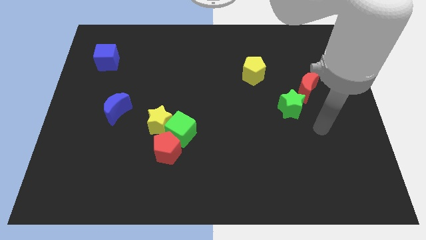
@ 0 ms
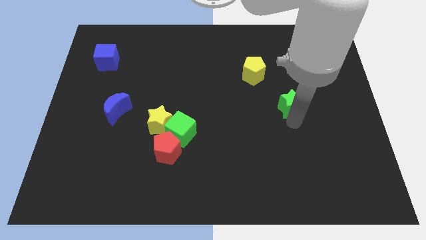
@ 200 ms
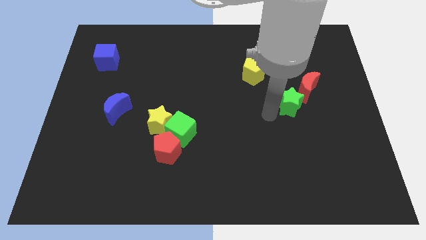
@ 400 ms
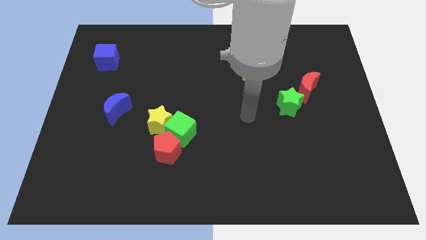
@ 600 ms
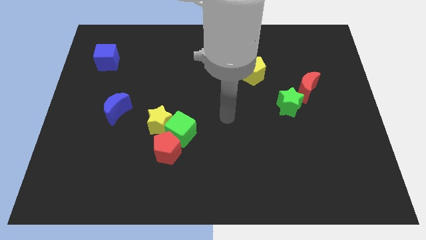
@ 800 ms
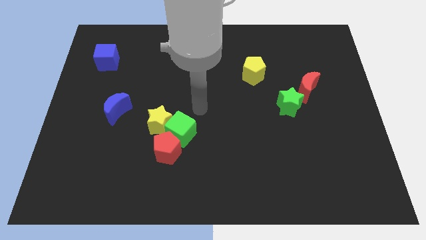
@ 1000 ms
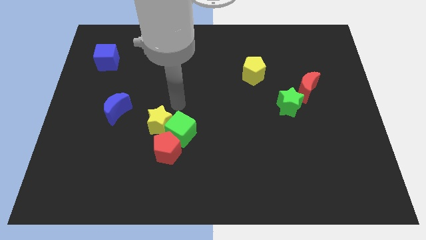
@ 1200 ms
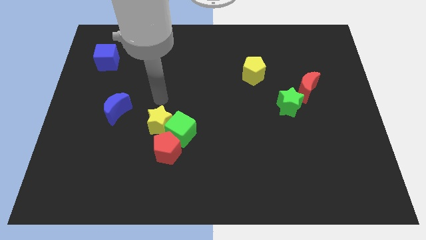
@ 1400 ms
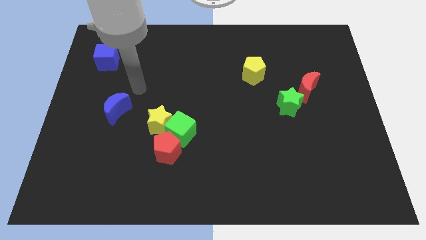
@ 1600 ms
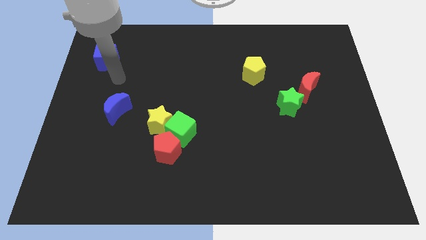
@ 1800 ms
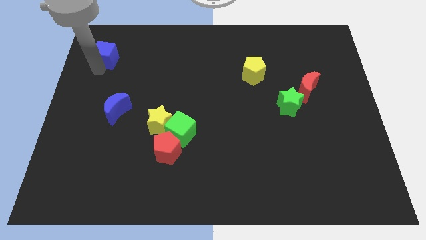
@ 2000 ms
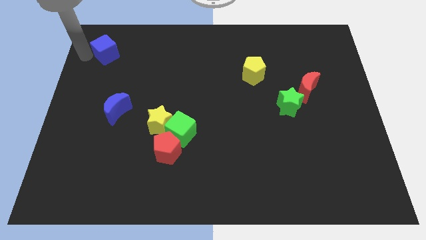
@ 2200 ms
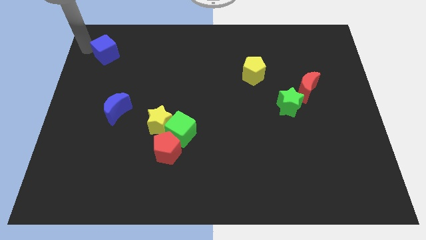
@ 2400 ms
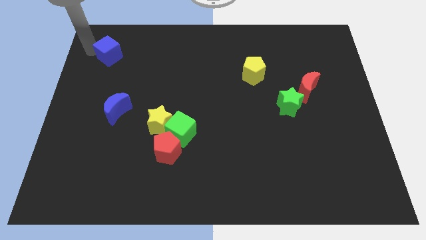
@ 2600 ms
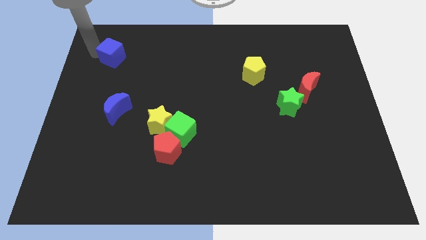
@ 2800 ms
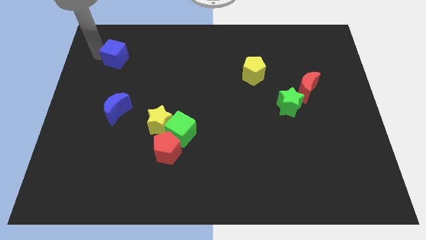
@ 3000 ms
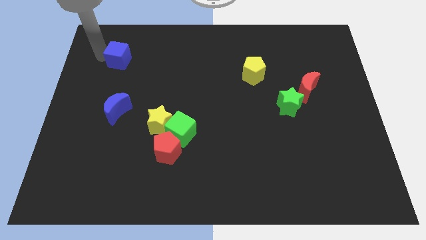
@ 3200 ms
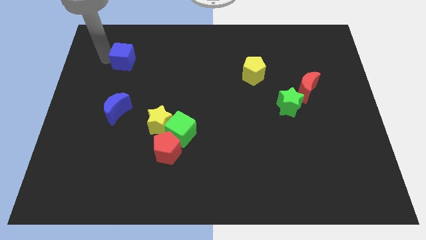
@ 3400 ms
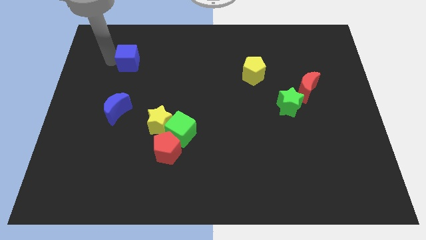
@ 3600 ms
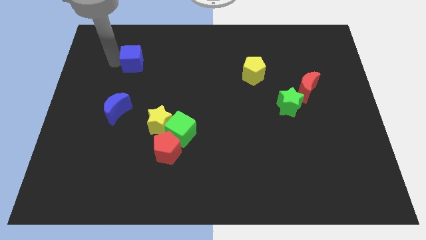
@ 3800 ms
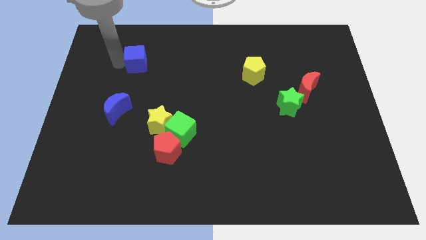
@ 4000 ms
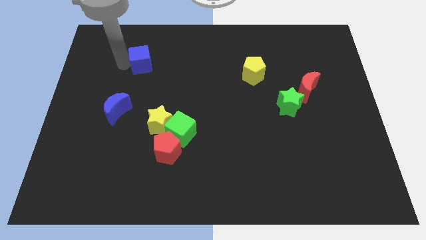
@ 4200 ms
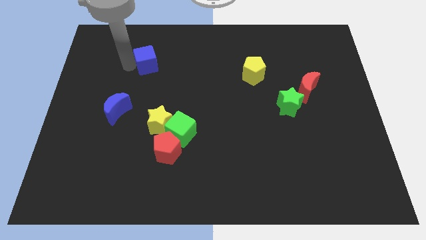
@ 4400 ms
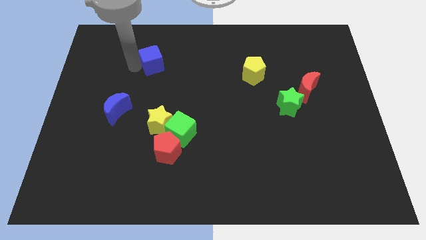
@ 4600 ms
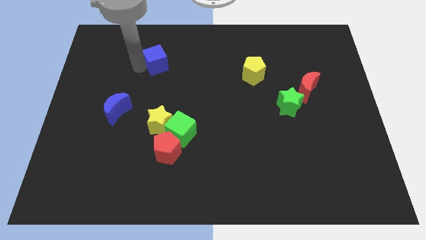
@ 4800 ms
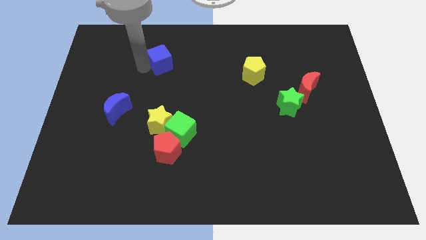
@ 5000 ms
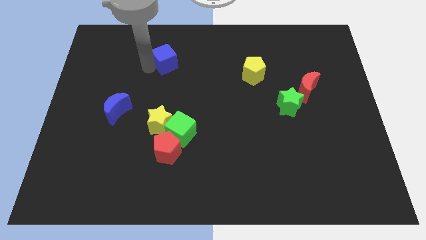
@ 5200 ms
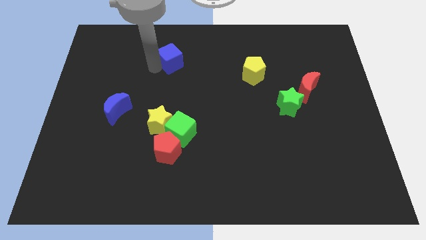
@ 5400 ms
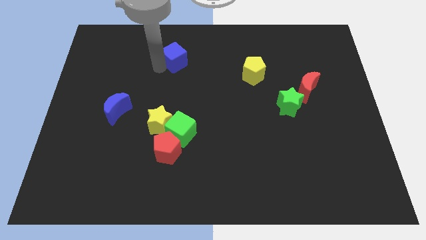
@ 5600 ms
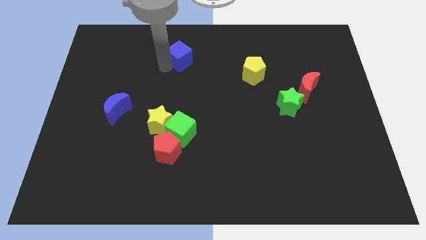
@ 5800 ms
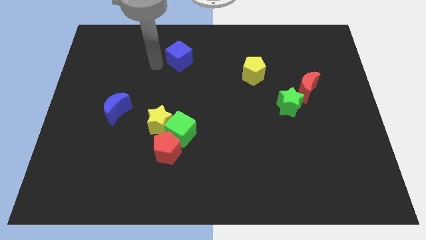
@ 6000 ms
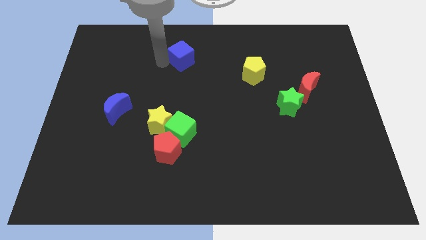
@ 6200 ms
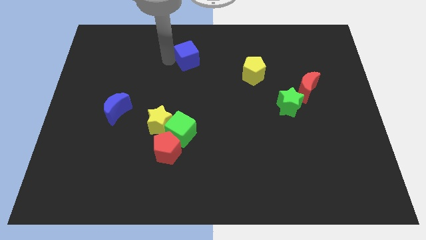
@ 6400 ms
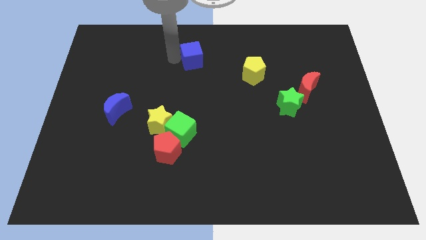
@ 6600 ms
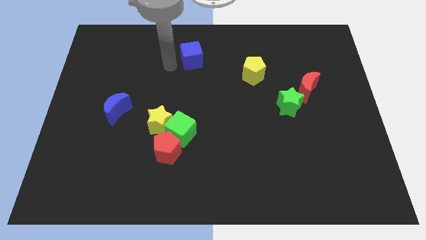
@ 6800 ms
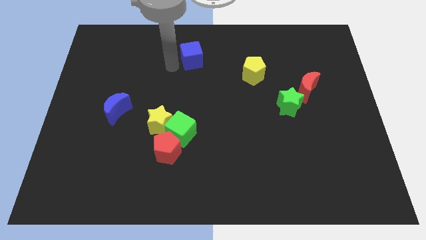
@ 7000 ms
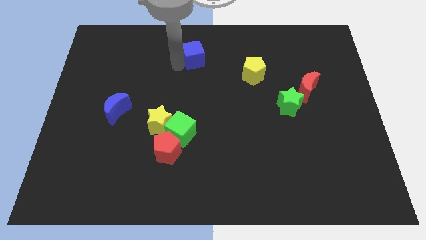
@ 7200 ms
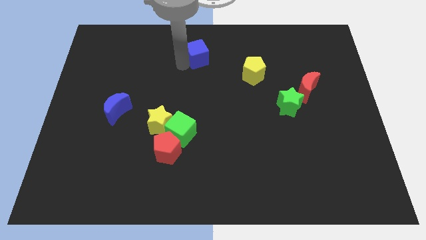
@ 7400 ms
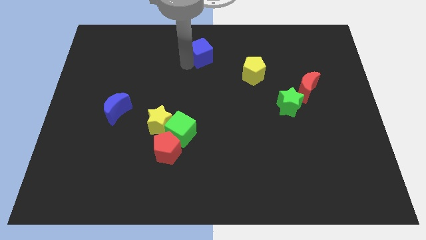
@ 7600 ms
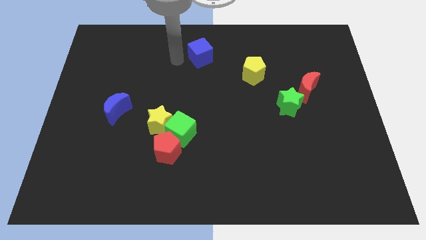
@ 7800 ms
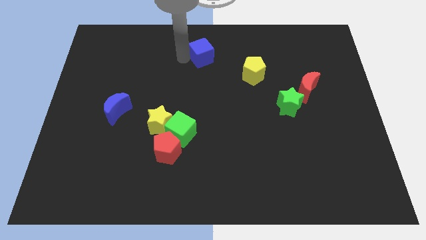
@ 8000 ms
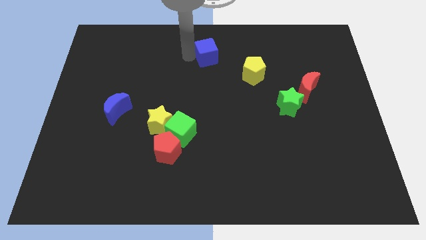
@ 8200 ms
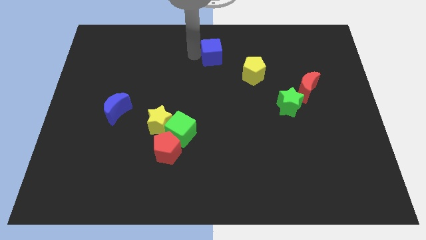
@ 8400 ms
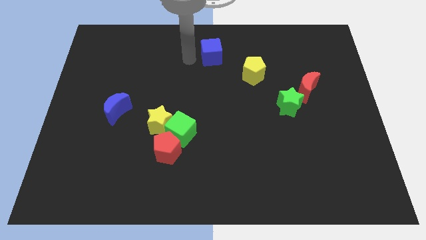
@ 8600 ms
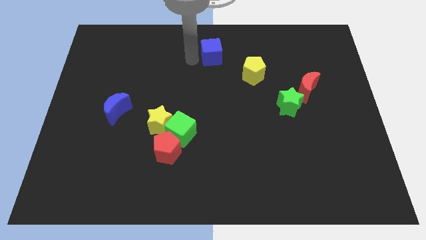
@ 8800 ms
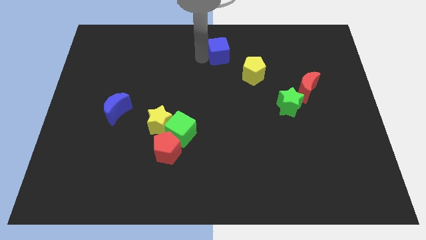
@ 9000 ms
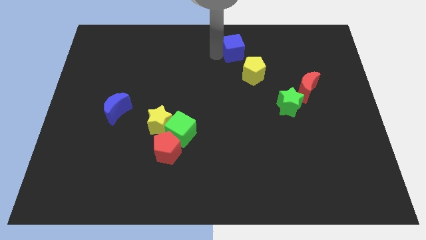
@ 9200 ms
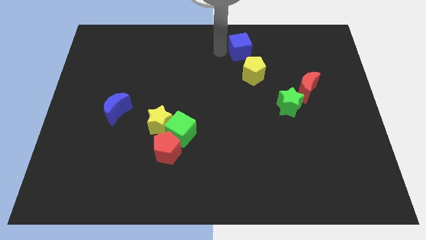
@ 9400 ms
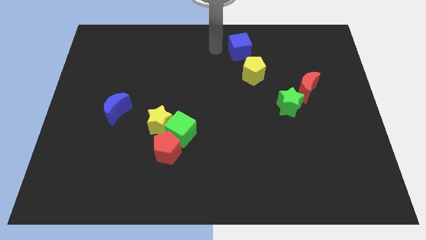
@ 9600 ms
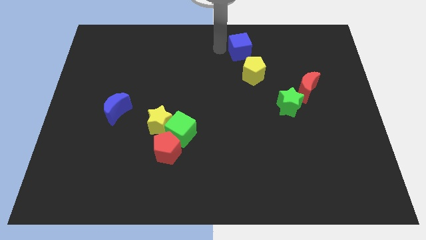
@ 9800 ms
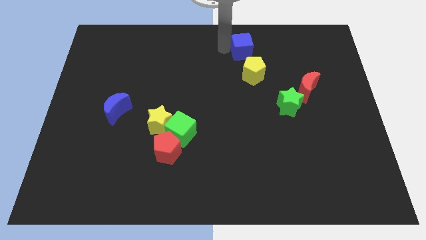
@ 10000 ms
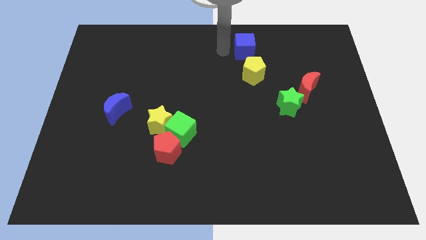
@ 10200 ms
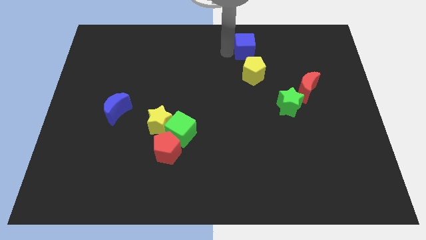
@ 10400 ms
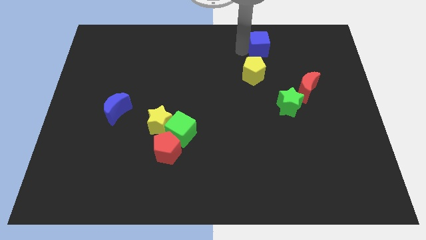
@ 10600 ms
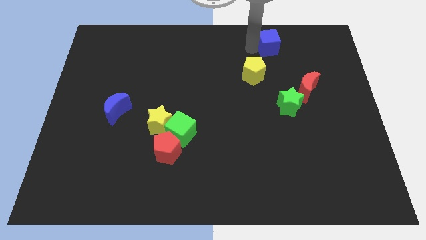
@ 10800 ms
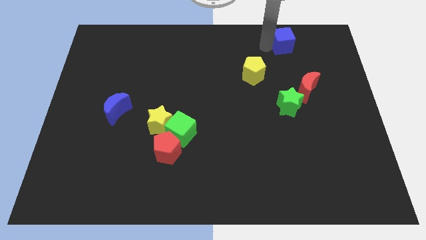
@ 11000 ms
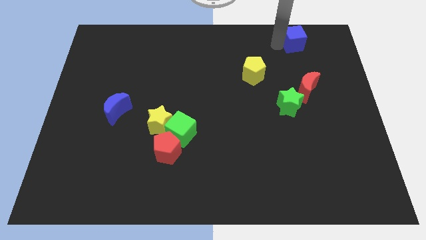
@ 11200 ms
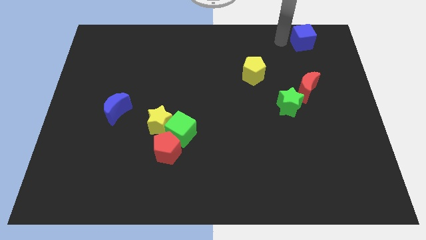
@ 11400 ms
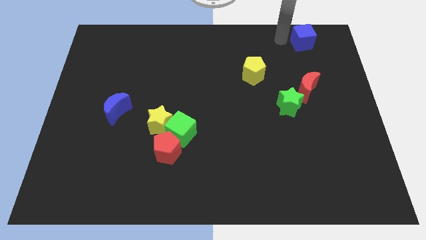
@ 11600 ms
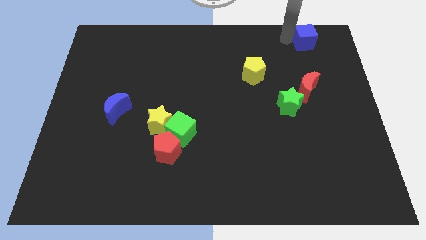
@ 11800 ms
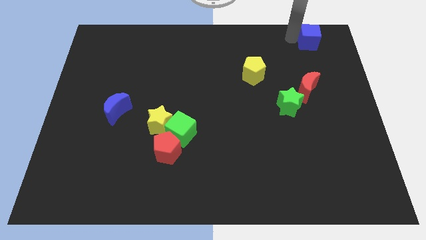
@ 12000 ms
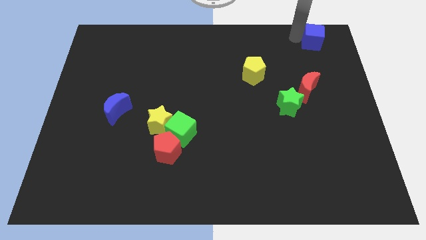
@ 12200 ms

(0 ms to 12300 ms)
push the blue cube to the top right of the board

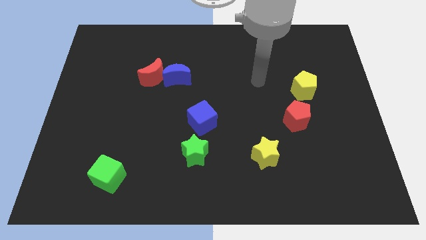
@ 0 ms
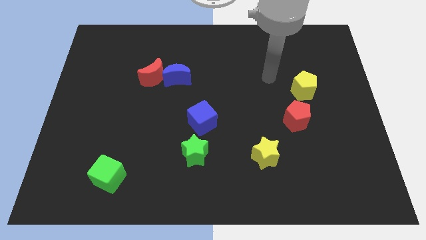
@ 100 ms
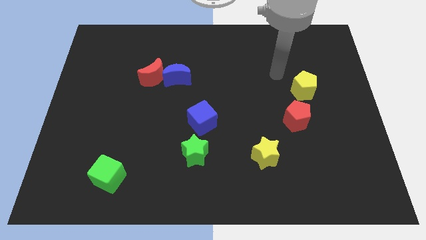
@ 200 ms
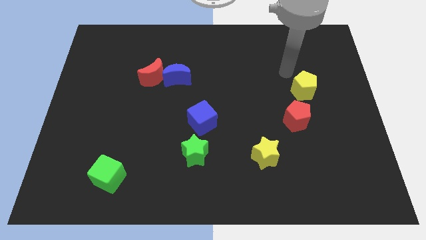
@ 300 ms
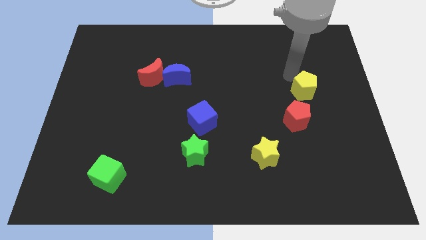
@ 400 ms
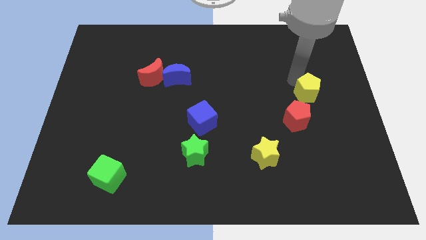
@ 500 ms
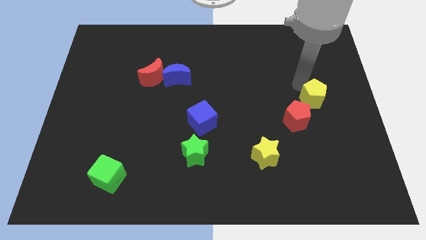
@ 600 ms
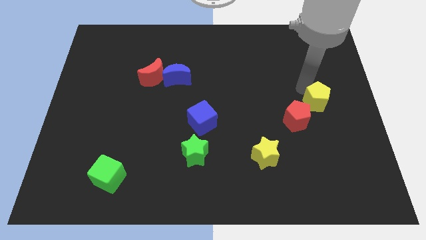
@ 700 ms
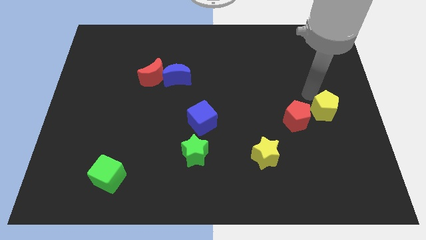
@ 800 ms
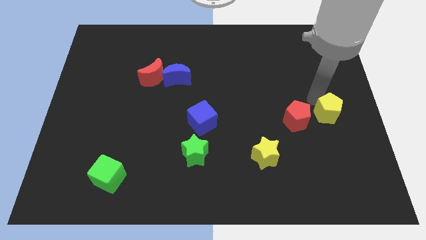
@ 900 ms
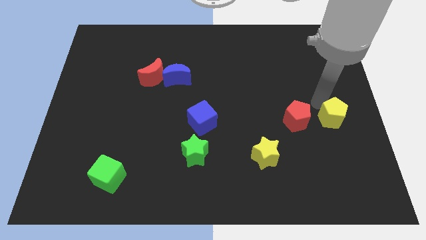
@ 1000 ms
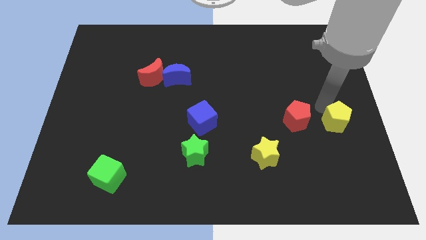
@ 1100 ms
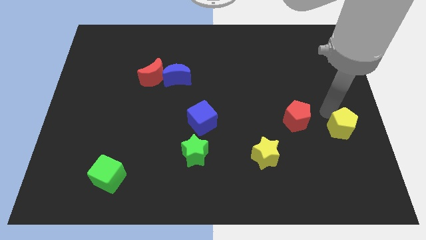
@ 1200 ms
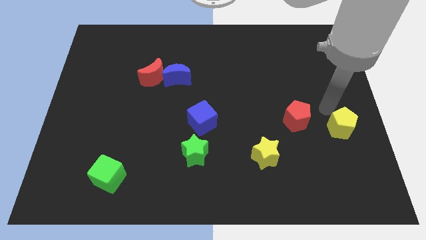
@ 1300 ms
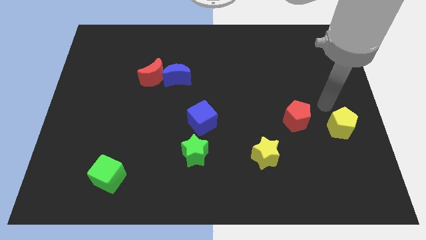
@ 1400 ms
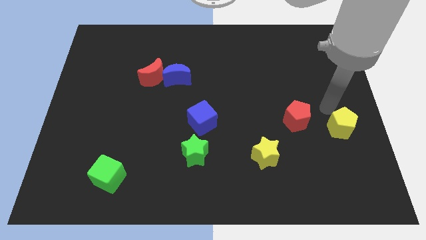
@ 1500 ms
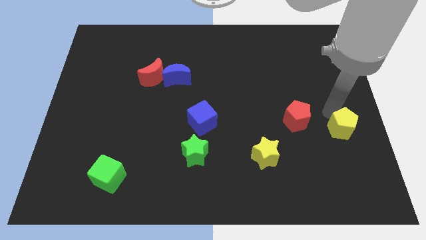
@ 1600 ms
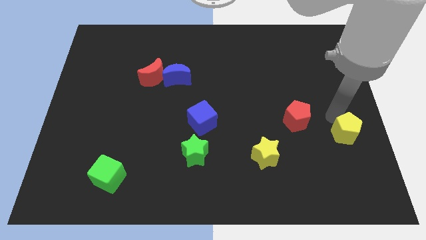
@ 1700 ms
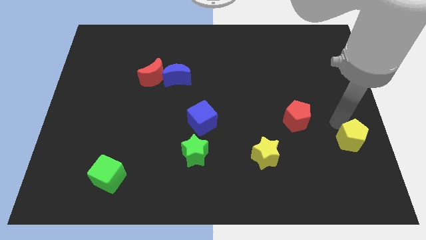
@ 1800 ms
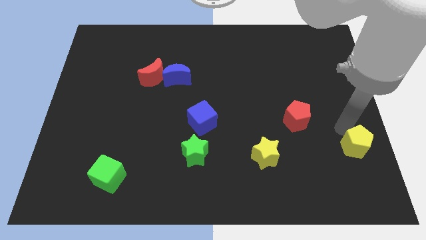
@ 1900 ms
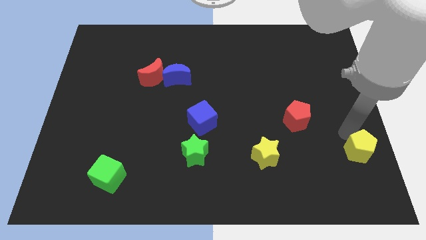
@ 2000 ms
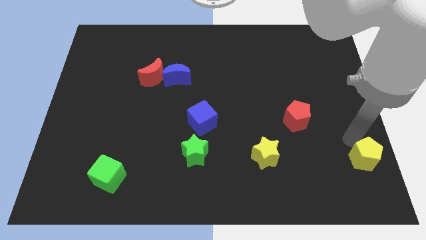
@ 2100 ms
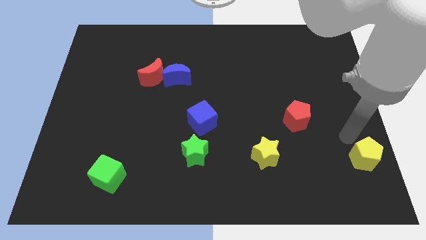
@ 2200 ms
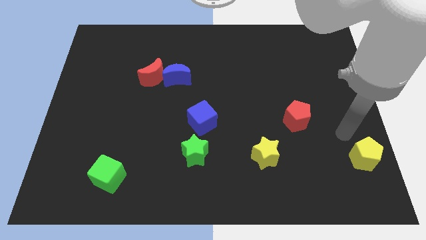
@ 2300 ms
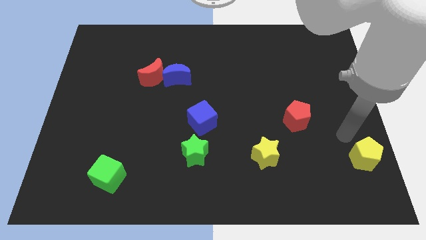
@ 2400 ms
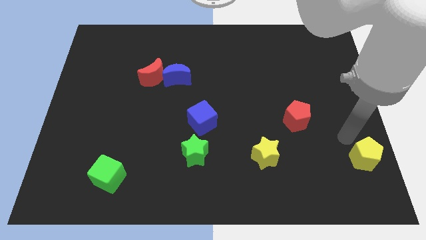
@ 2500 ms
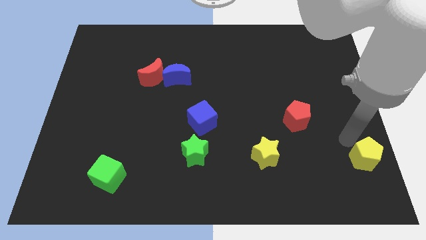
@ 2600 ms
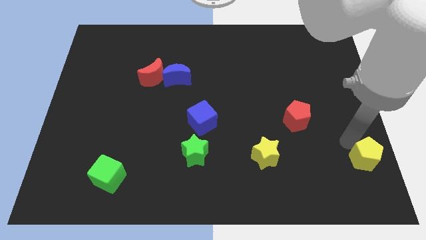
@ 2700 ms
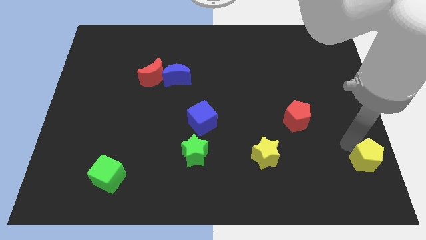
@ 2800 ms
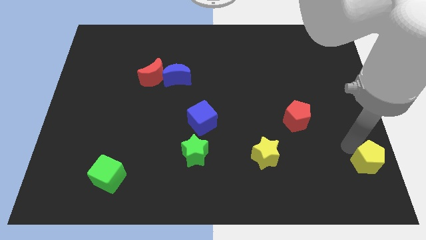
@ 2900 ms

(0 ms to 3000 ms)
push the yellow pentagon to the lower right corner
